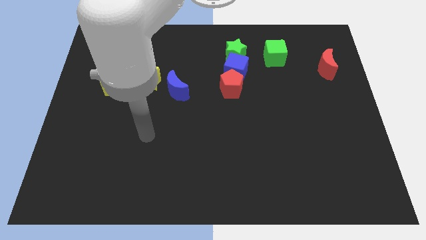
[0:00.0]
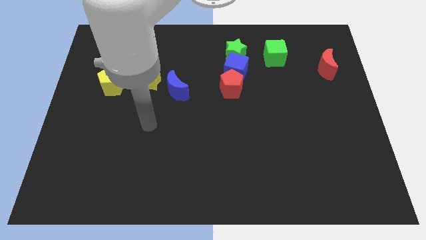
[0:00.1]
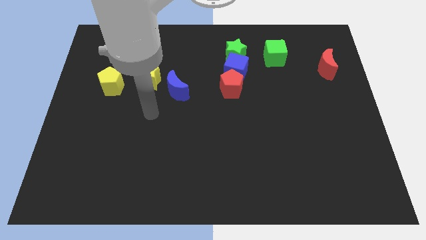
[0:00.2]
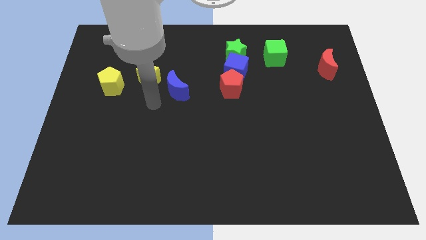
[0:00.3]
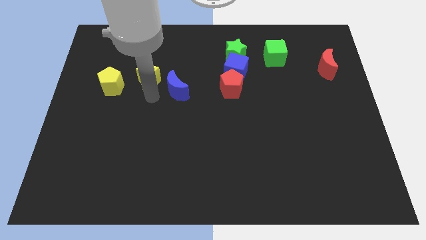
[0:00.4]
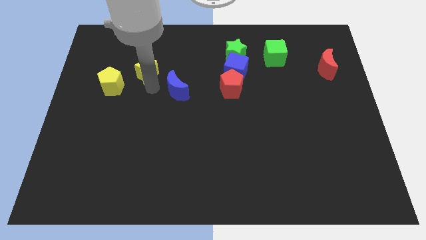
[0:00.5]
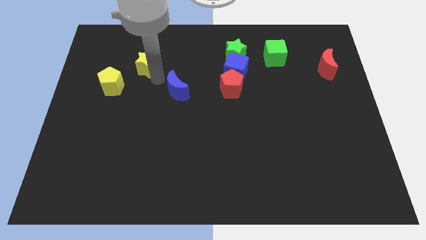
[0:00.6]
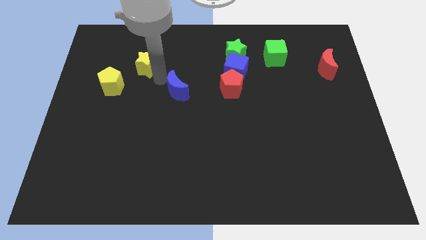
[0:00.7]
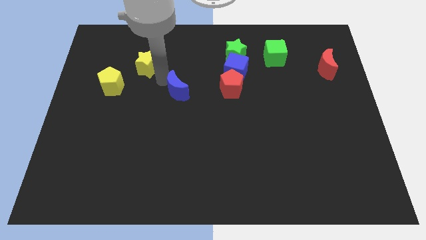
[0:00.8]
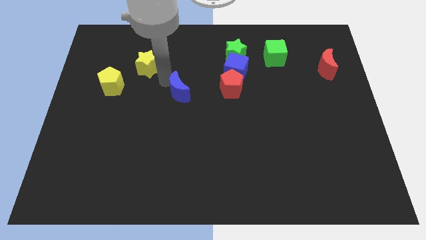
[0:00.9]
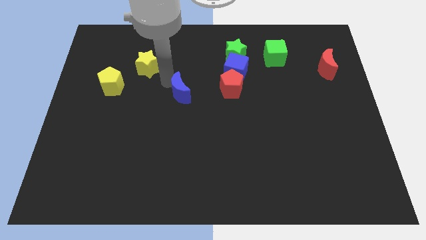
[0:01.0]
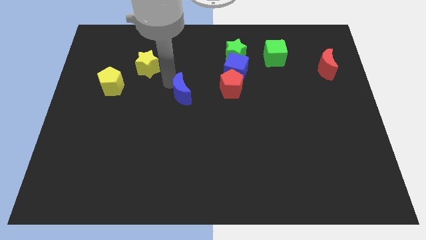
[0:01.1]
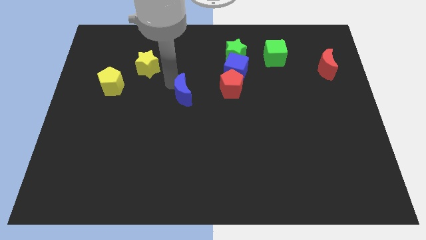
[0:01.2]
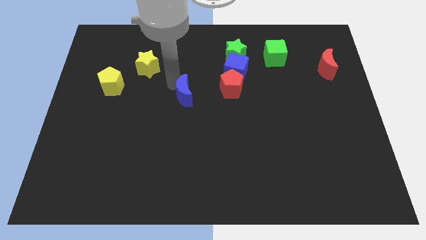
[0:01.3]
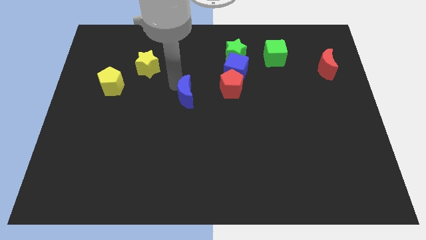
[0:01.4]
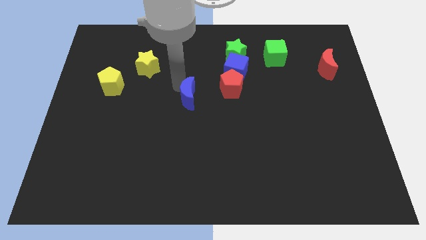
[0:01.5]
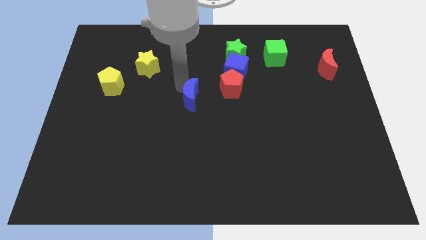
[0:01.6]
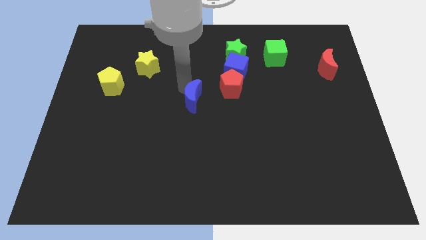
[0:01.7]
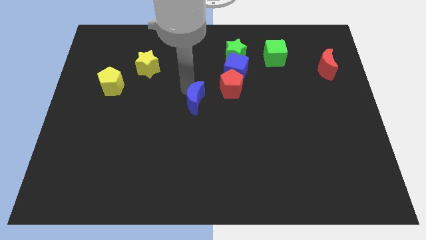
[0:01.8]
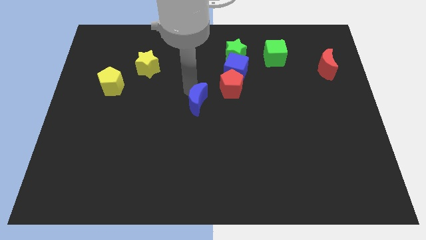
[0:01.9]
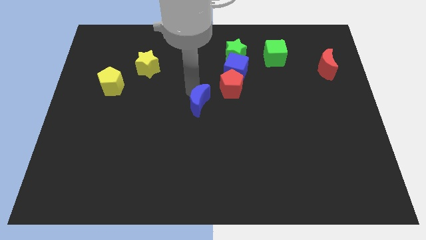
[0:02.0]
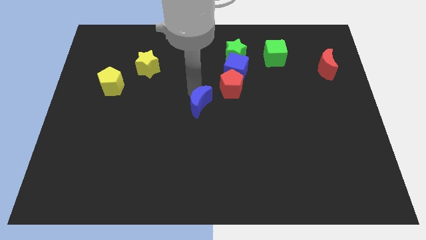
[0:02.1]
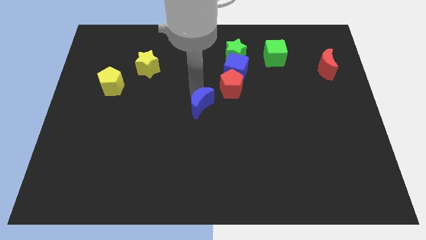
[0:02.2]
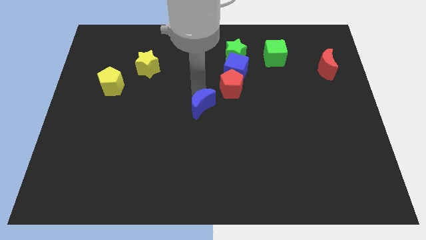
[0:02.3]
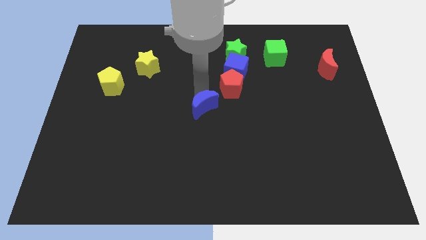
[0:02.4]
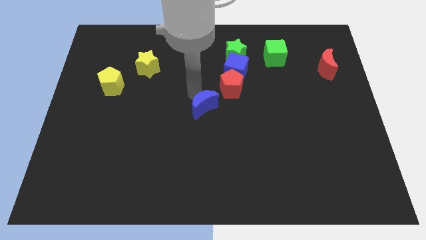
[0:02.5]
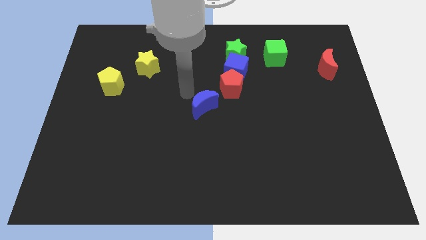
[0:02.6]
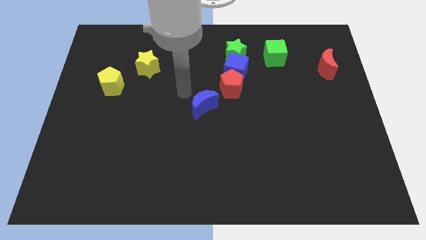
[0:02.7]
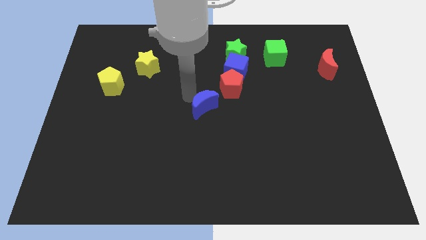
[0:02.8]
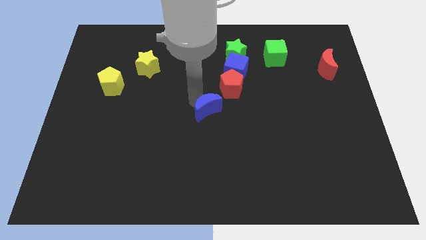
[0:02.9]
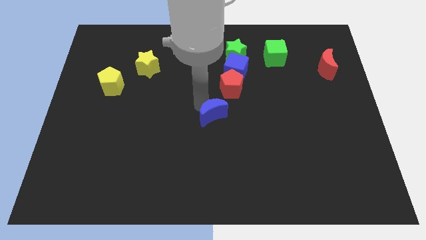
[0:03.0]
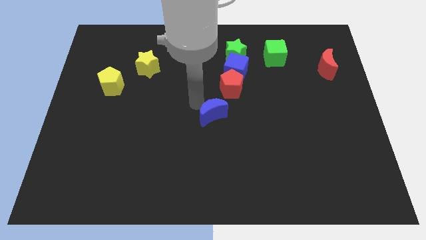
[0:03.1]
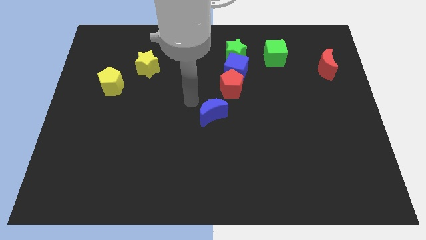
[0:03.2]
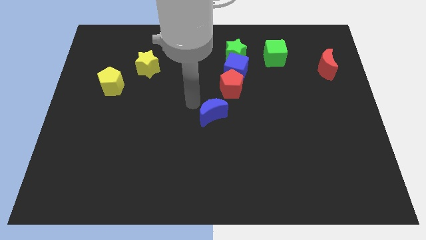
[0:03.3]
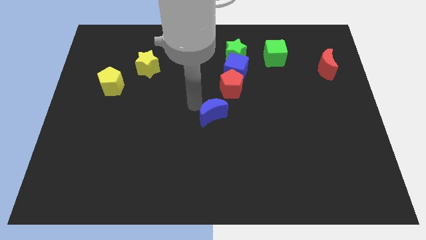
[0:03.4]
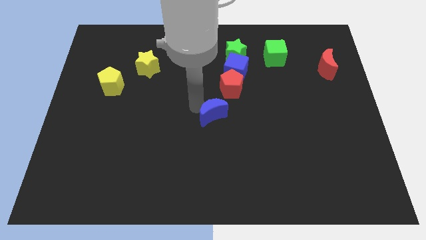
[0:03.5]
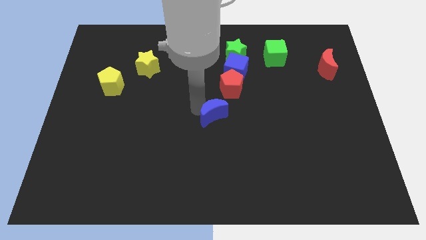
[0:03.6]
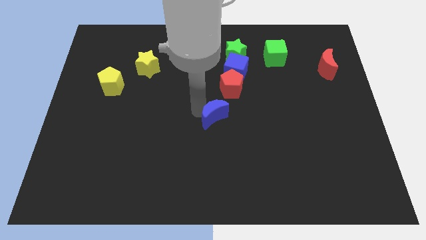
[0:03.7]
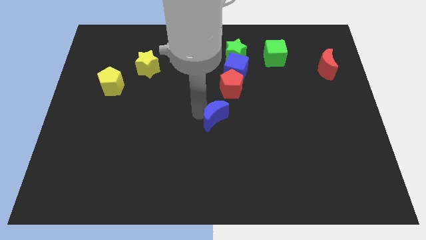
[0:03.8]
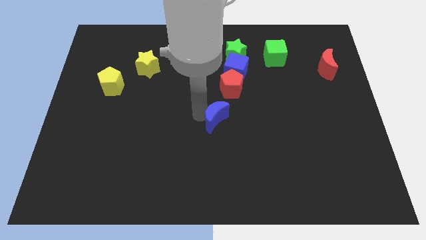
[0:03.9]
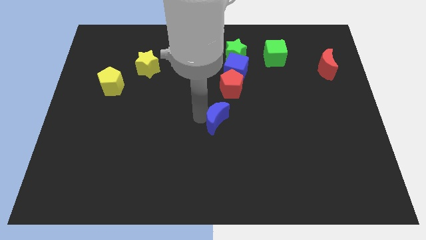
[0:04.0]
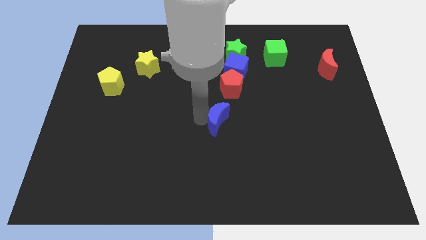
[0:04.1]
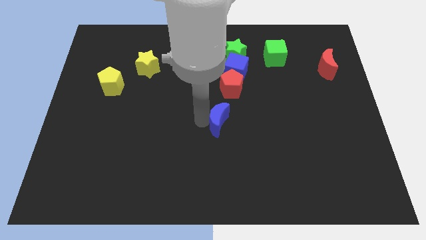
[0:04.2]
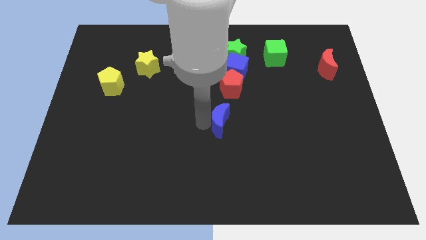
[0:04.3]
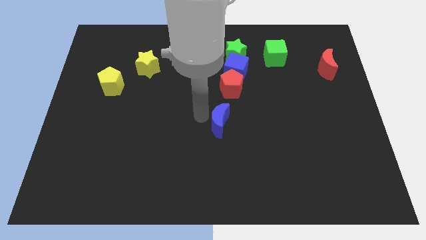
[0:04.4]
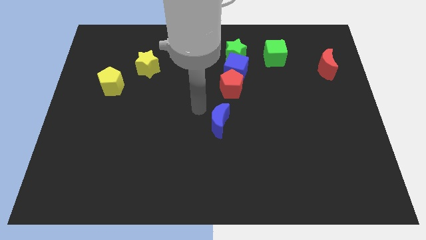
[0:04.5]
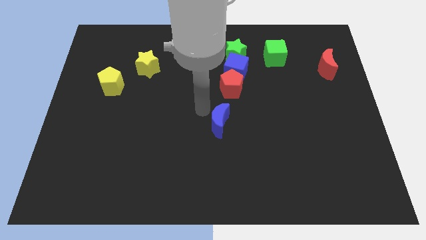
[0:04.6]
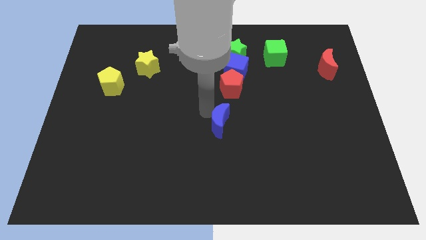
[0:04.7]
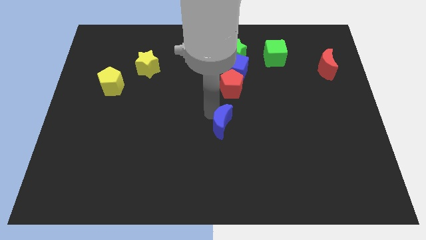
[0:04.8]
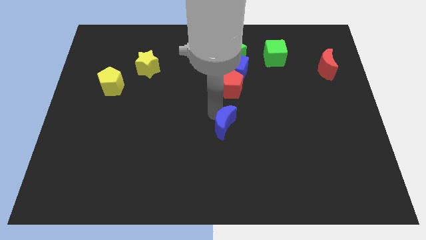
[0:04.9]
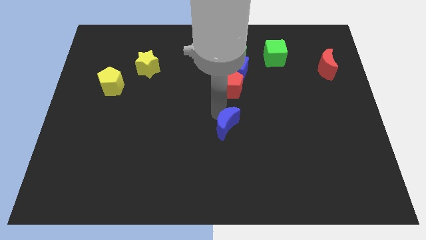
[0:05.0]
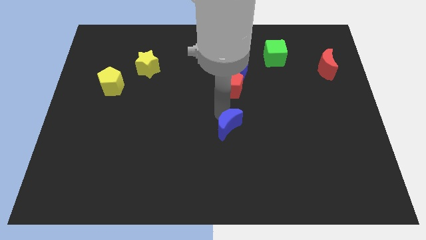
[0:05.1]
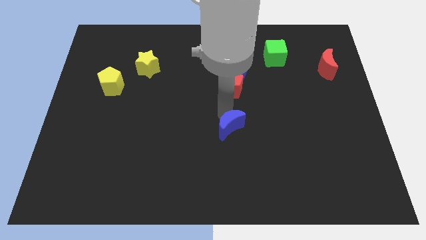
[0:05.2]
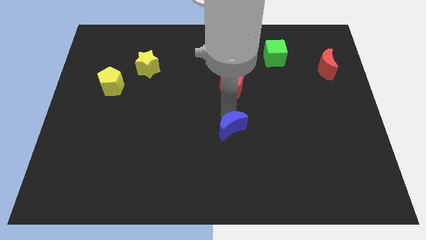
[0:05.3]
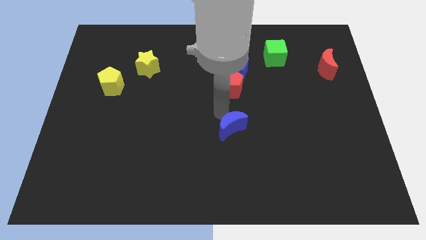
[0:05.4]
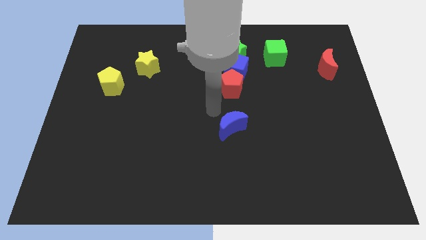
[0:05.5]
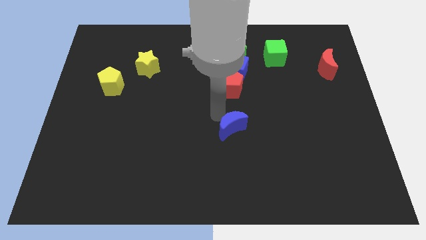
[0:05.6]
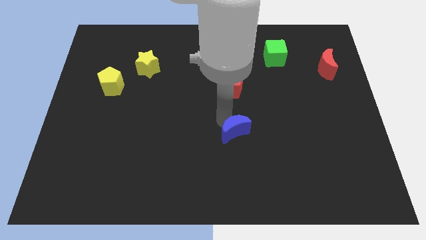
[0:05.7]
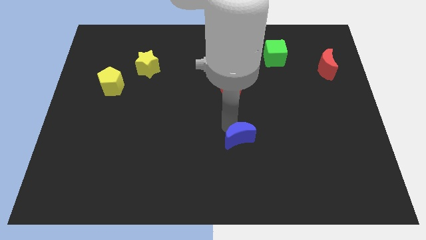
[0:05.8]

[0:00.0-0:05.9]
push the blue moon downwards and then right

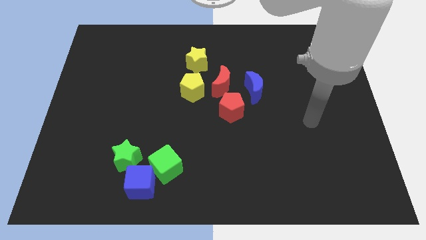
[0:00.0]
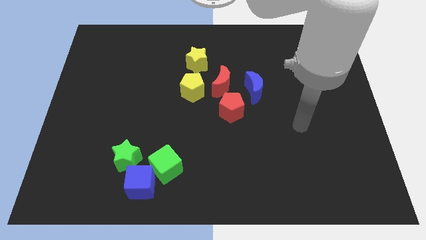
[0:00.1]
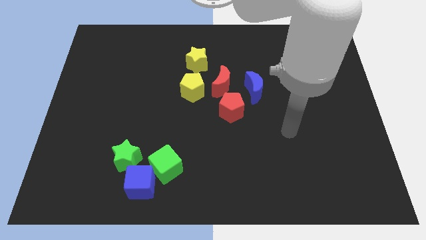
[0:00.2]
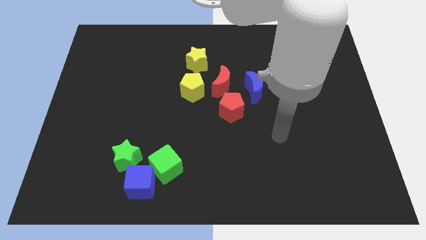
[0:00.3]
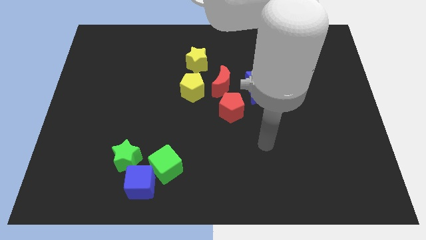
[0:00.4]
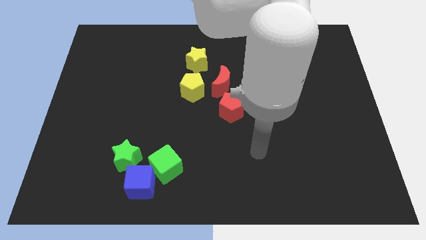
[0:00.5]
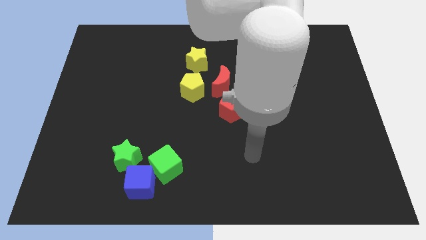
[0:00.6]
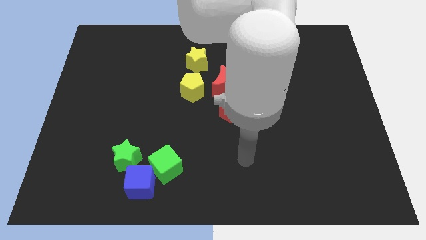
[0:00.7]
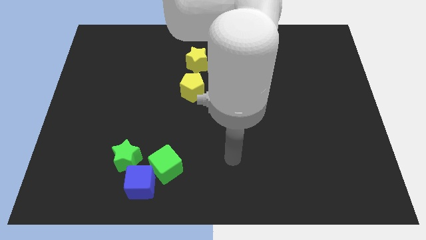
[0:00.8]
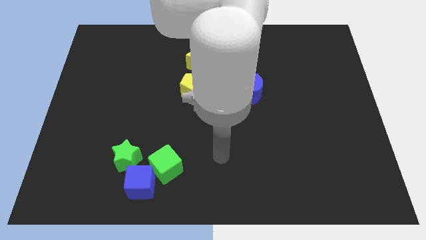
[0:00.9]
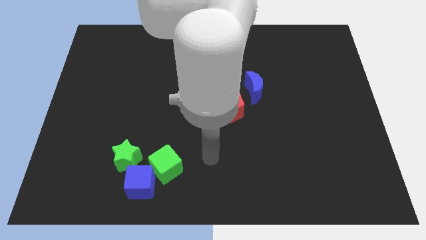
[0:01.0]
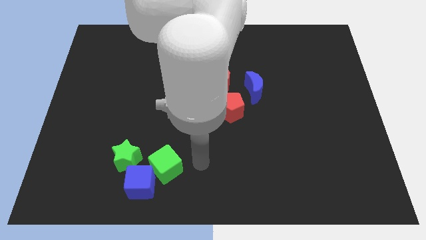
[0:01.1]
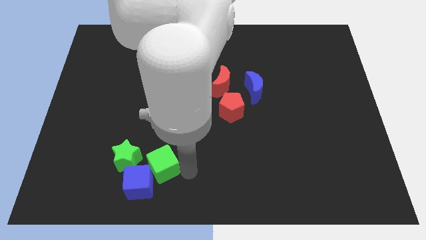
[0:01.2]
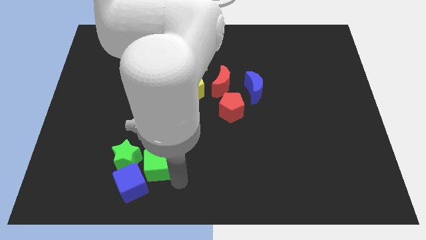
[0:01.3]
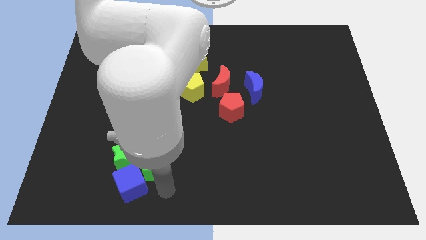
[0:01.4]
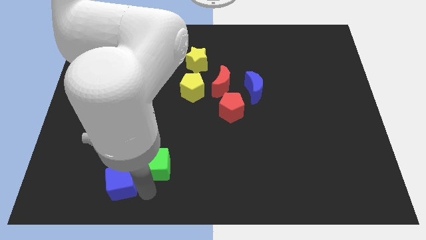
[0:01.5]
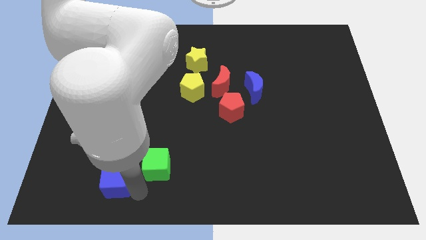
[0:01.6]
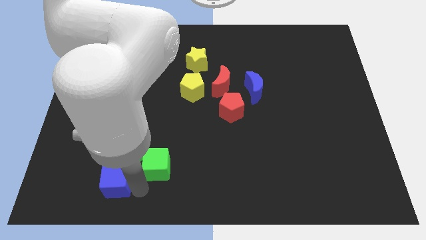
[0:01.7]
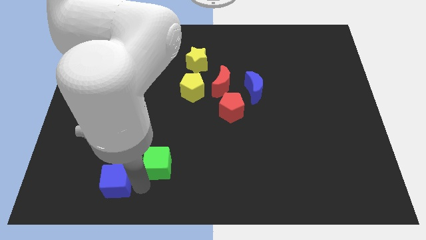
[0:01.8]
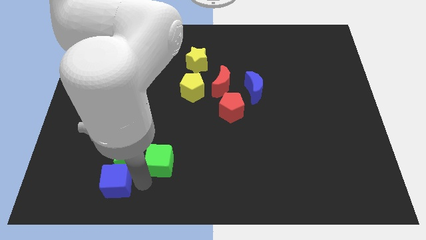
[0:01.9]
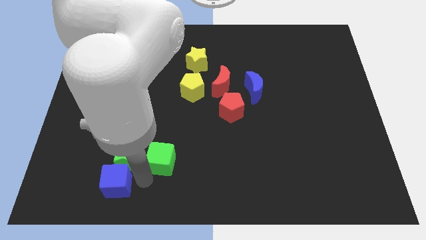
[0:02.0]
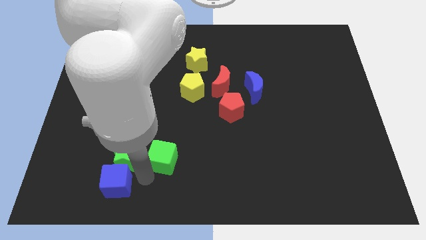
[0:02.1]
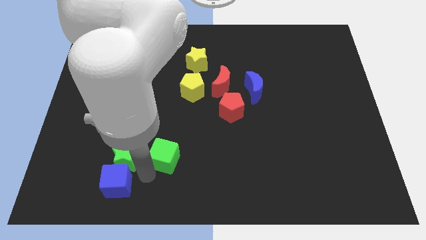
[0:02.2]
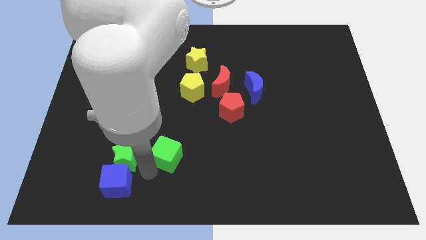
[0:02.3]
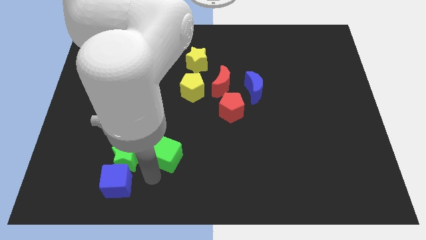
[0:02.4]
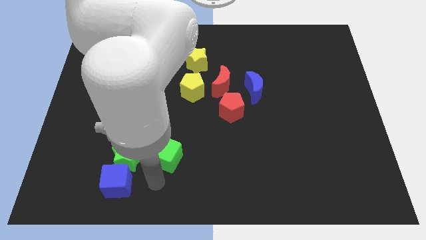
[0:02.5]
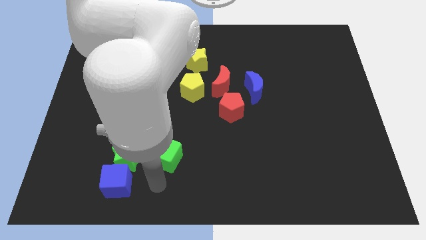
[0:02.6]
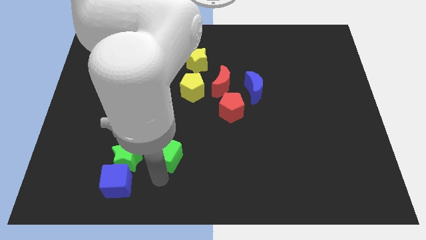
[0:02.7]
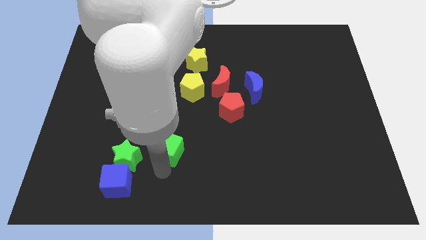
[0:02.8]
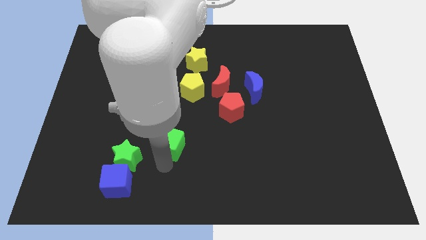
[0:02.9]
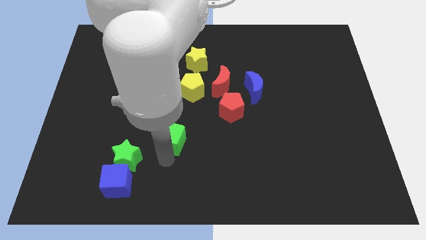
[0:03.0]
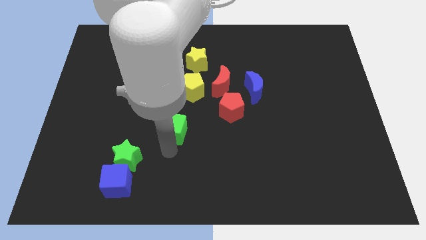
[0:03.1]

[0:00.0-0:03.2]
slightly move the green cube up
